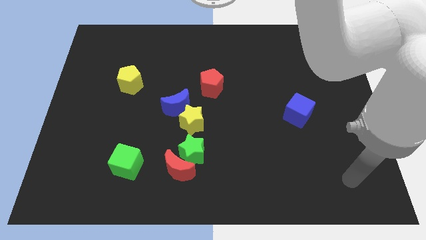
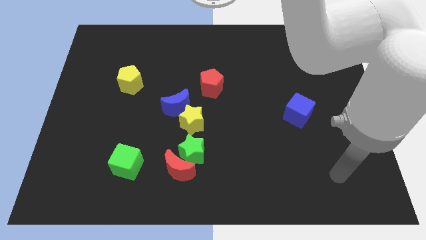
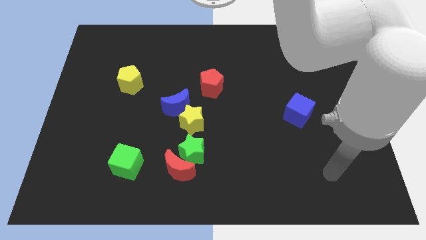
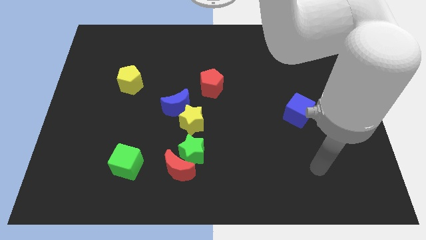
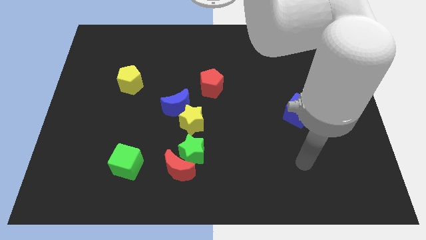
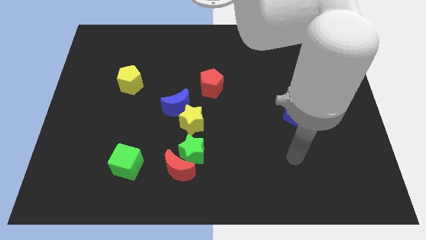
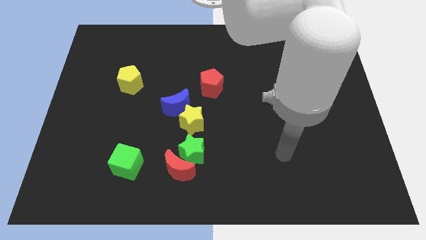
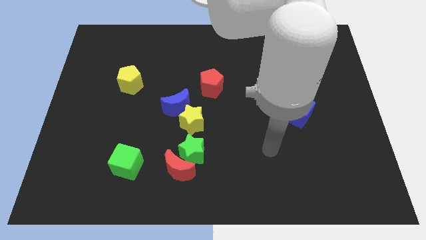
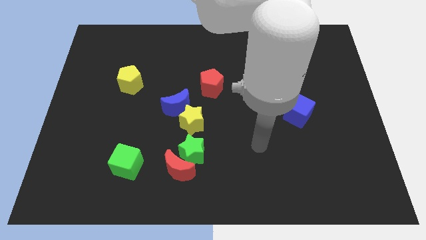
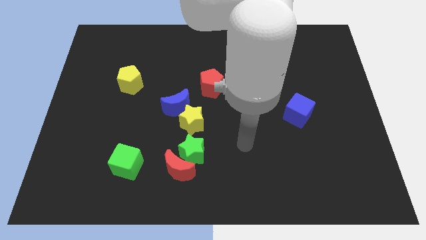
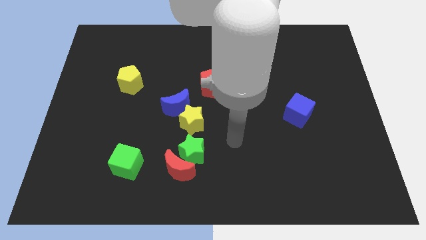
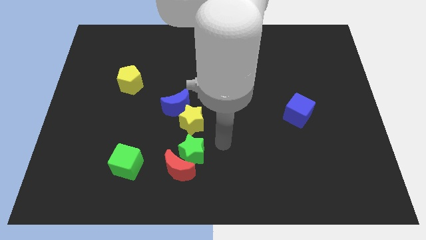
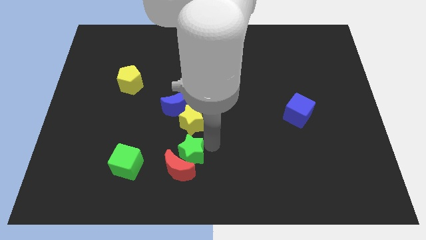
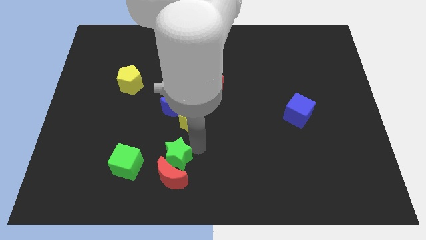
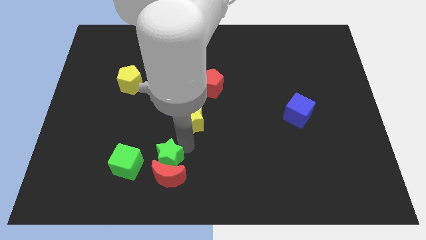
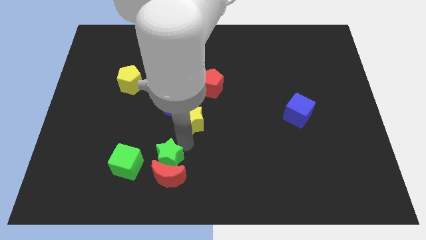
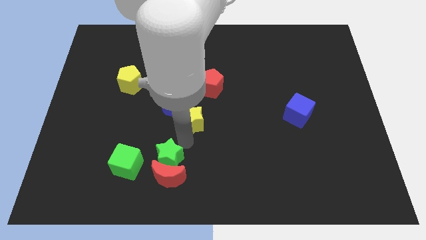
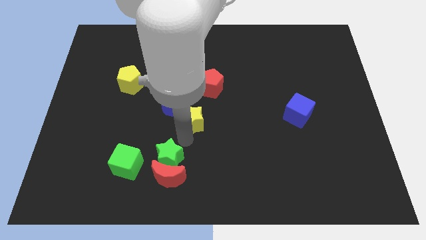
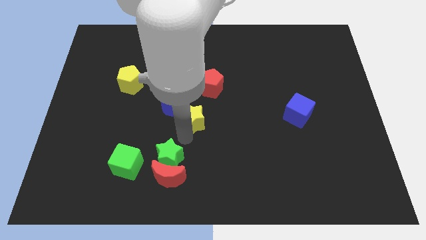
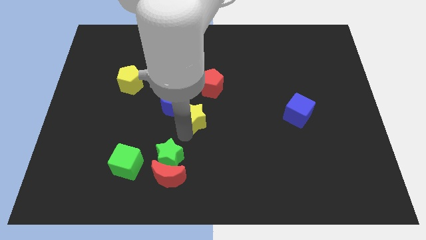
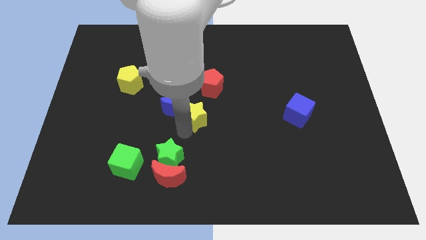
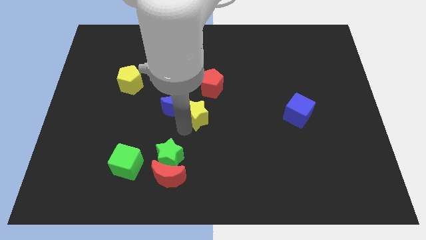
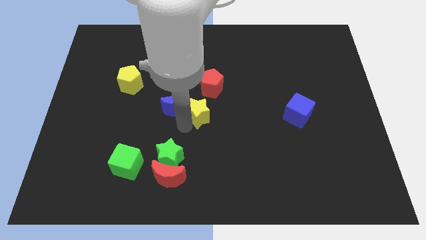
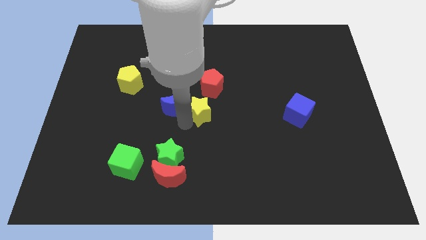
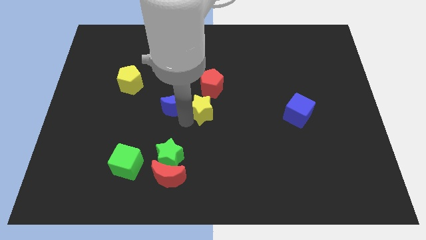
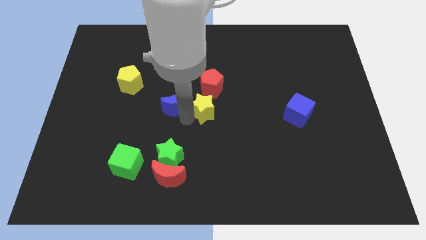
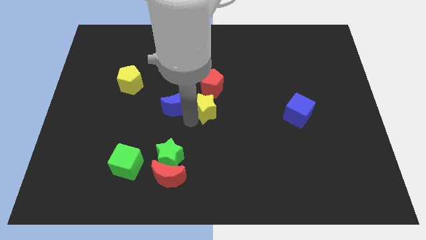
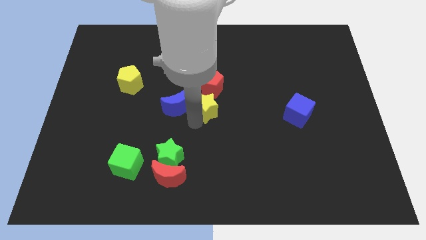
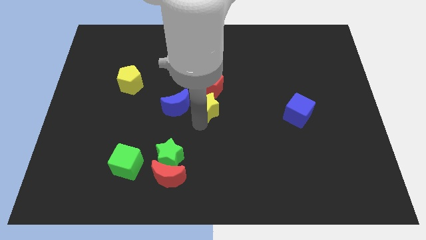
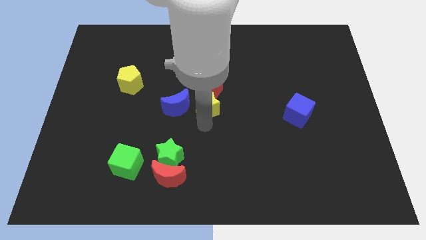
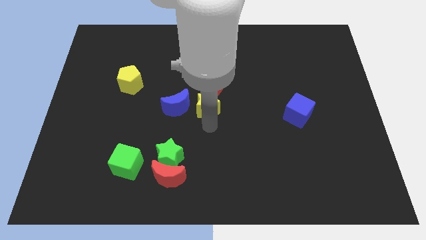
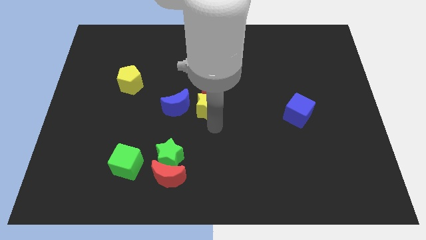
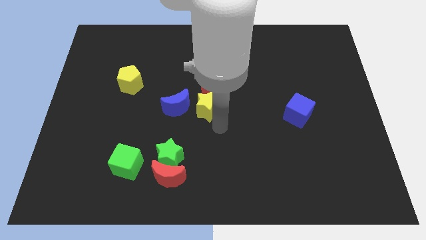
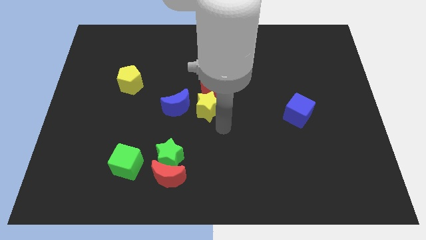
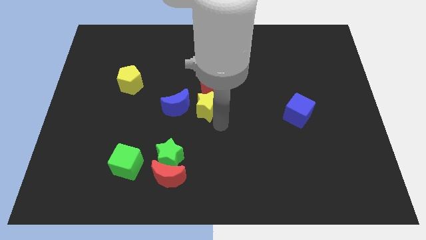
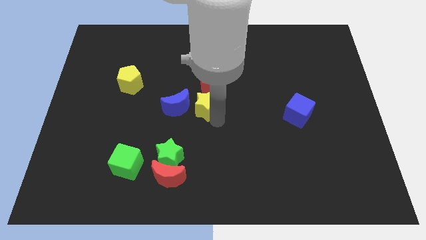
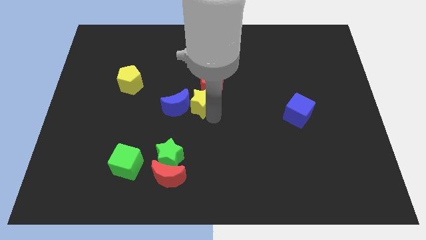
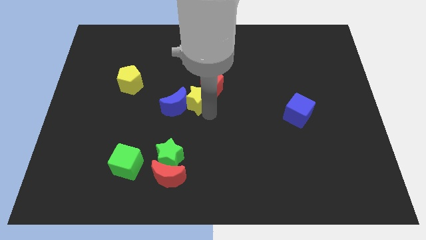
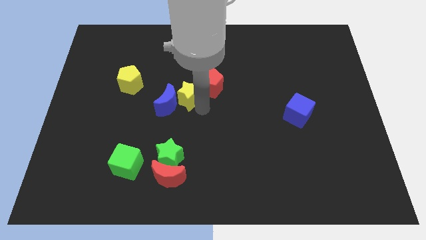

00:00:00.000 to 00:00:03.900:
slide the yellow star somewhat up

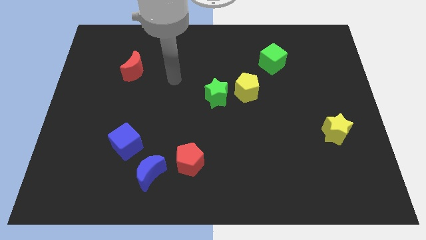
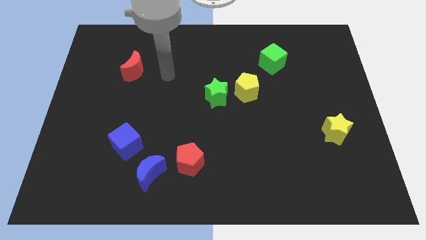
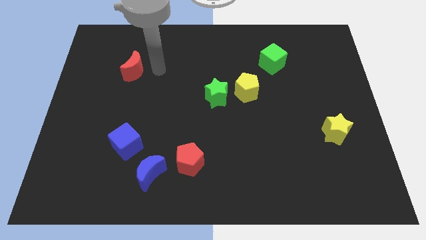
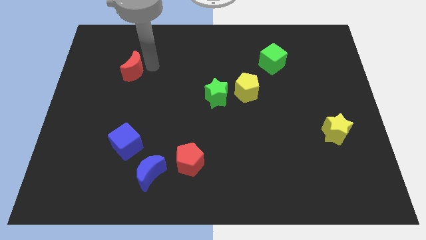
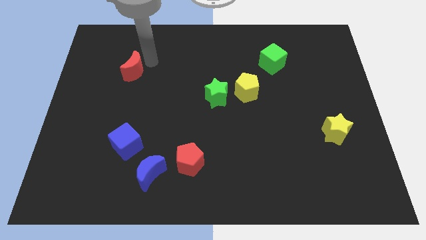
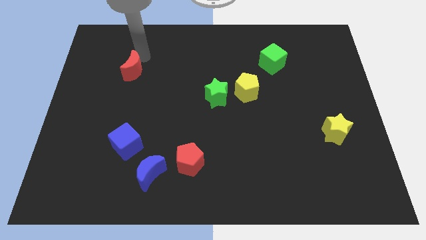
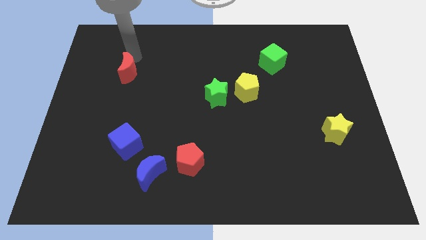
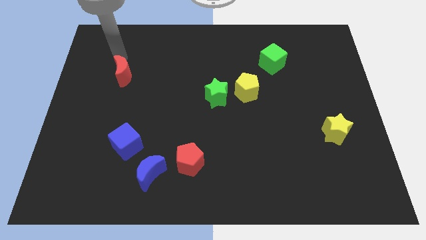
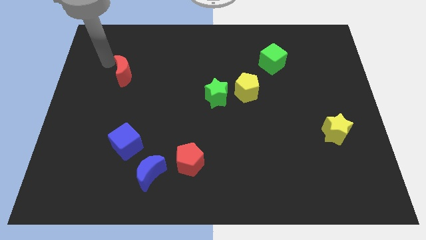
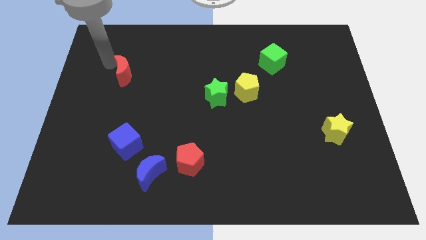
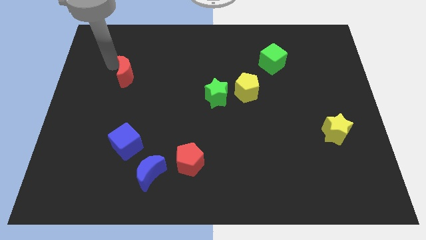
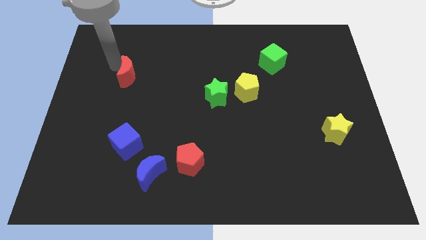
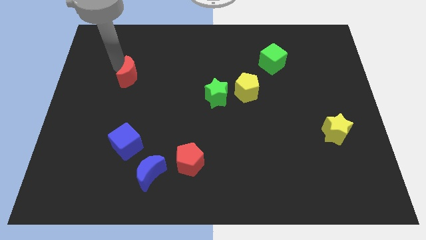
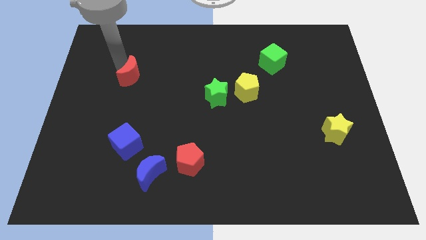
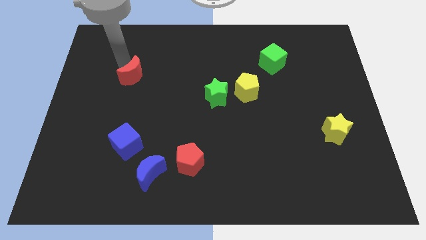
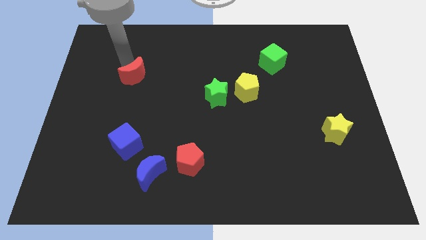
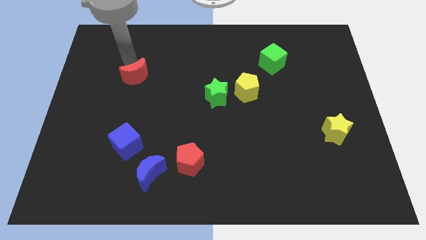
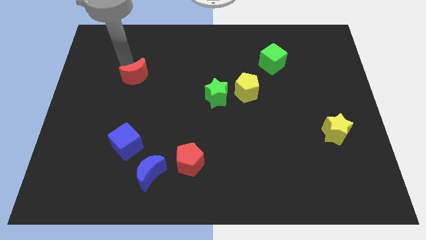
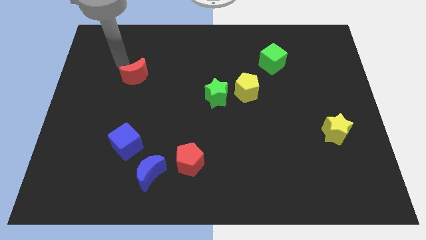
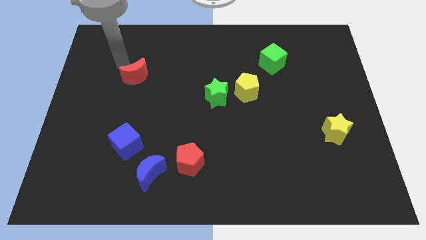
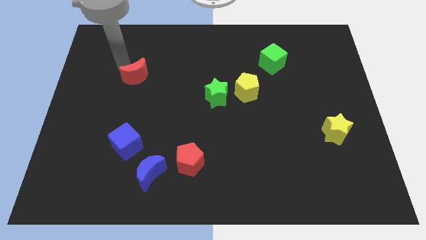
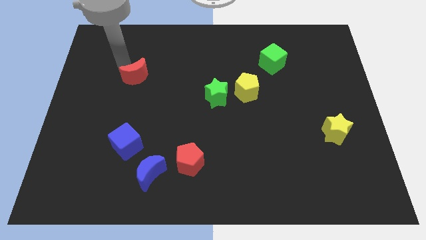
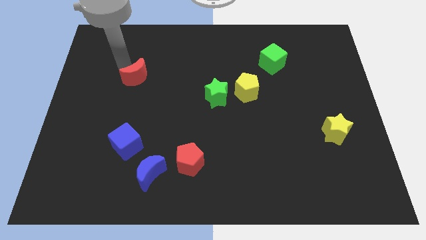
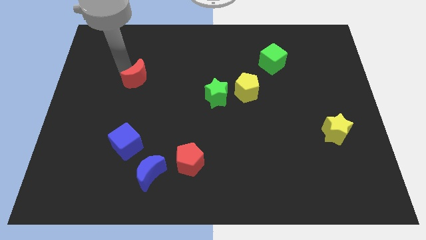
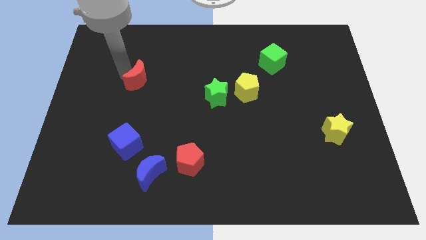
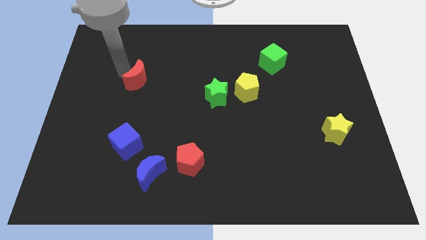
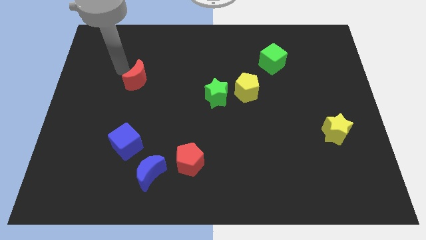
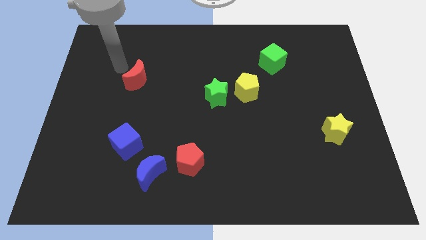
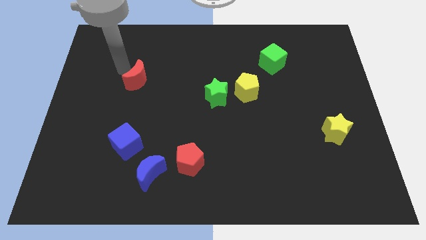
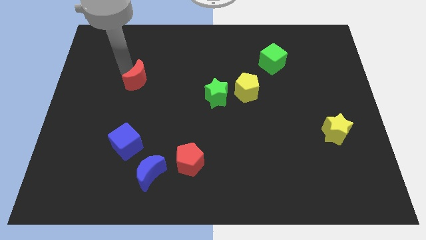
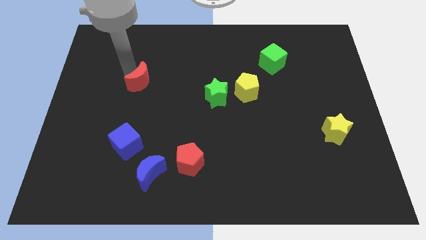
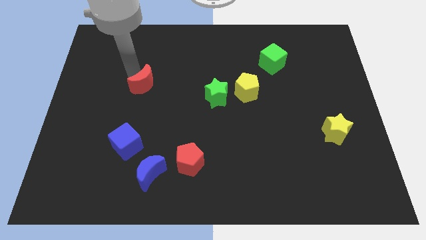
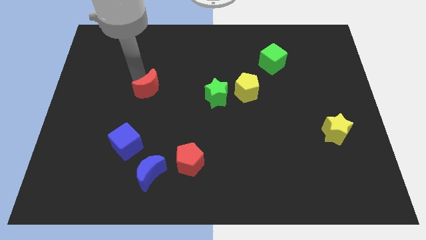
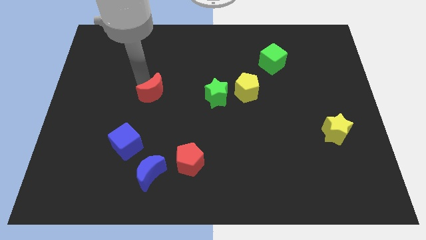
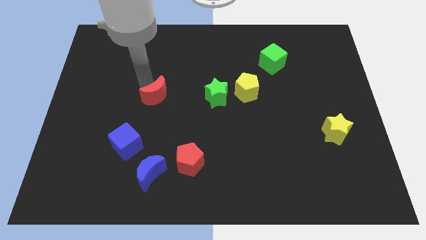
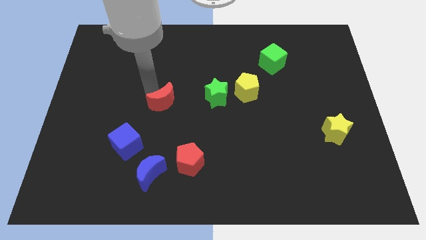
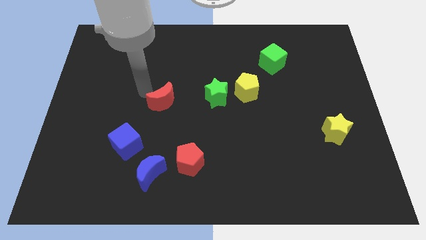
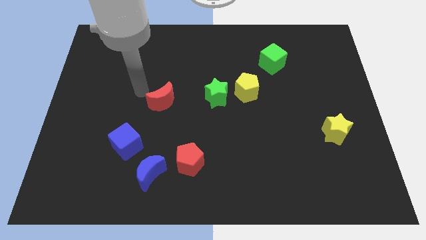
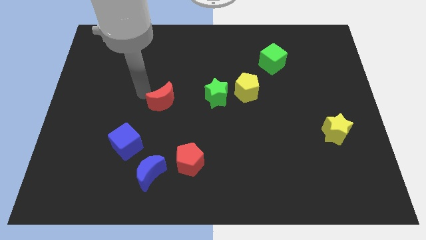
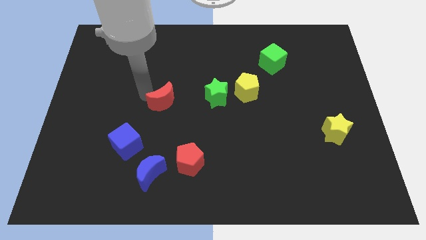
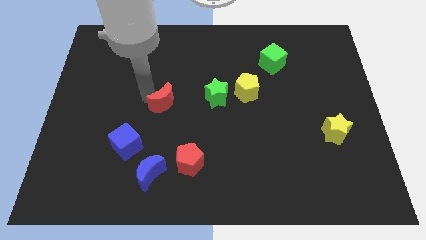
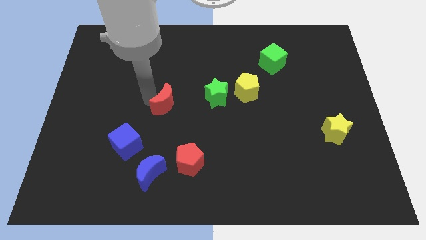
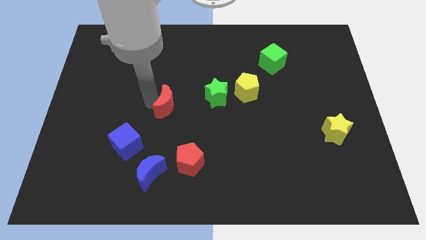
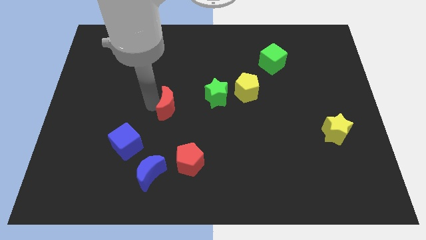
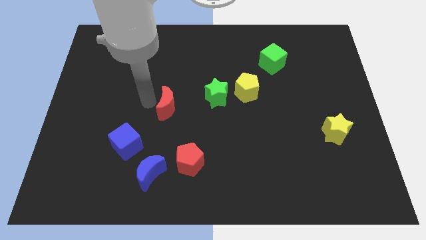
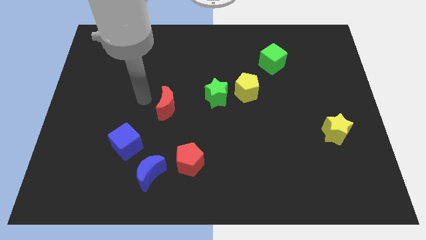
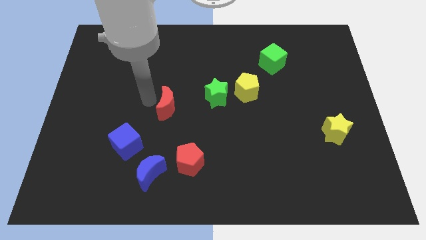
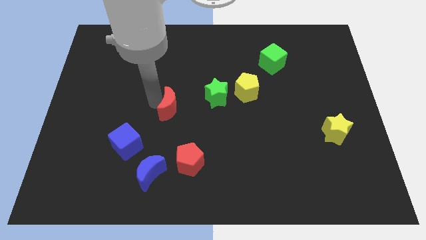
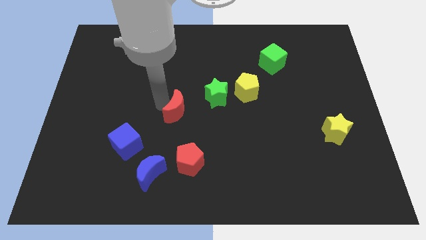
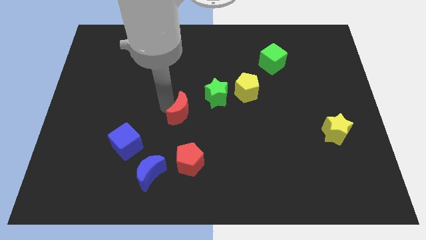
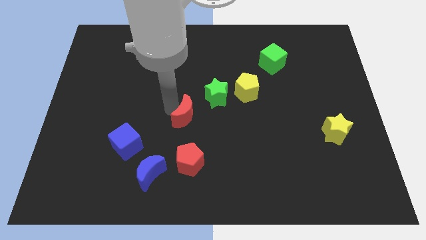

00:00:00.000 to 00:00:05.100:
move the red moon downwards and right diagonally
